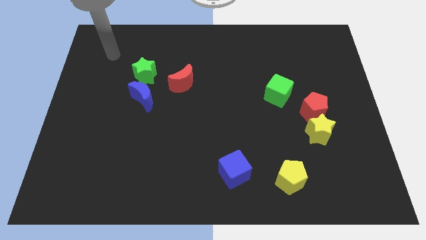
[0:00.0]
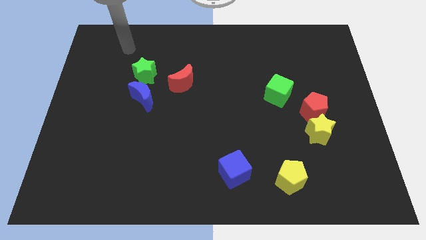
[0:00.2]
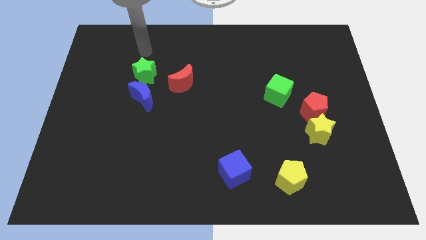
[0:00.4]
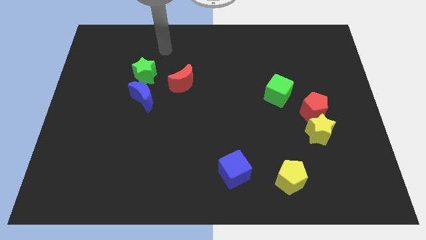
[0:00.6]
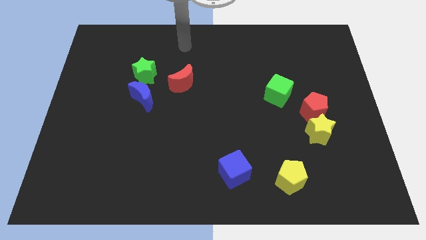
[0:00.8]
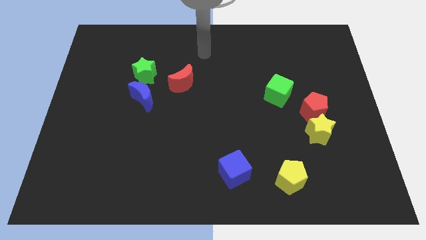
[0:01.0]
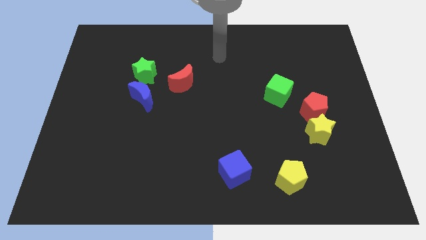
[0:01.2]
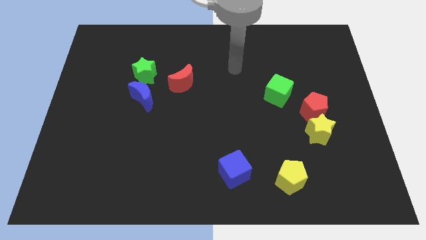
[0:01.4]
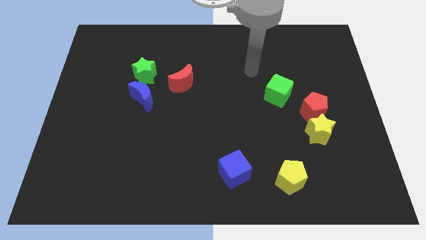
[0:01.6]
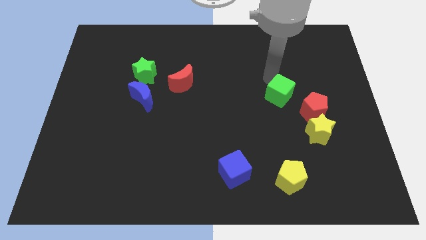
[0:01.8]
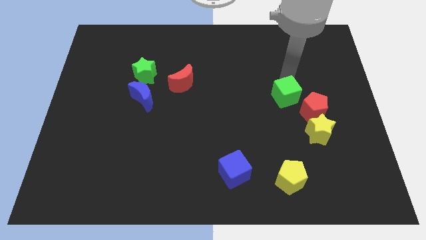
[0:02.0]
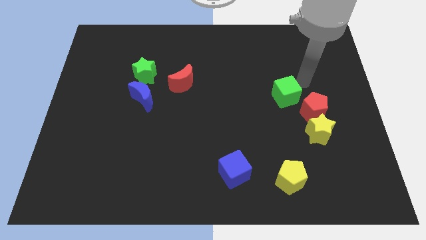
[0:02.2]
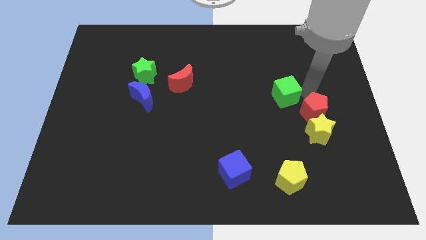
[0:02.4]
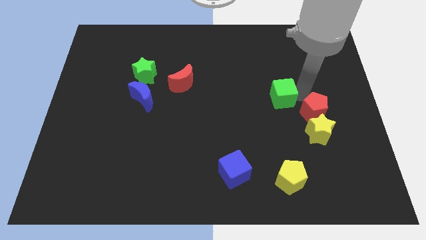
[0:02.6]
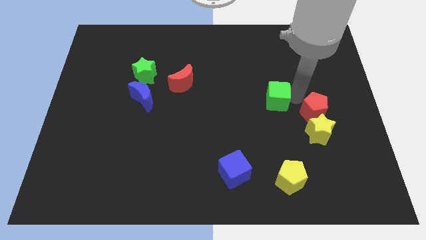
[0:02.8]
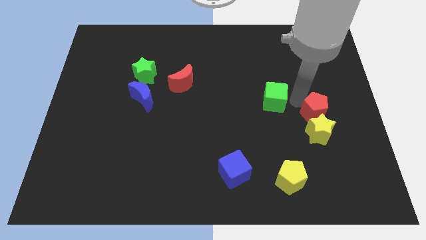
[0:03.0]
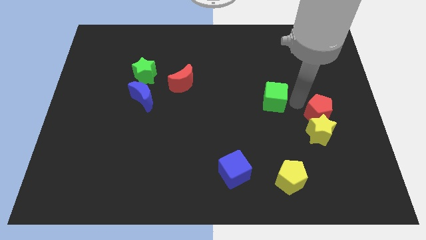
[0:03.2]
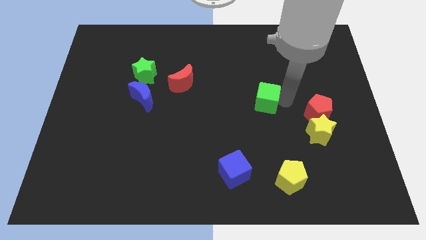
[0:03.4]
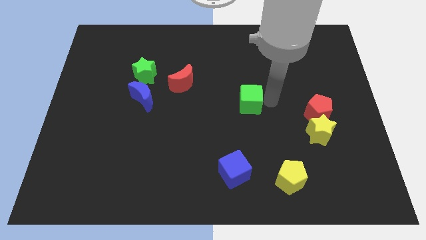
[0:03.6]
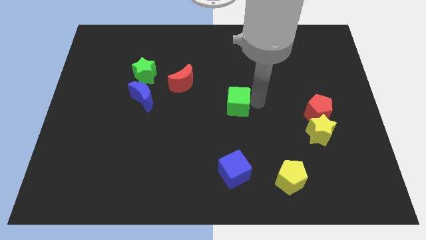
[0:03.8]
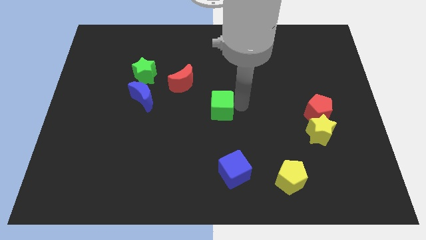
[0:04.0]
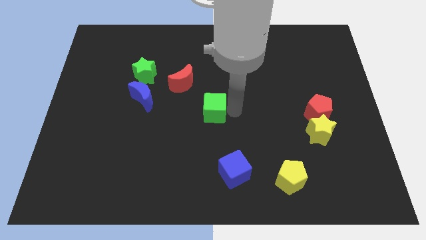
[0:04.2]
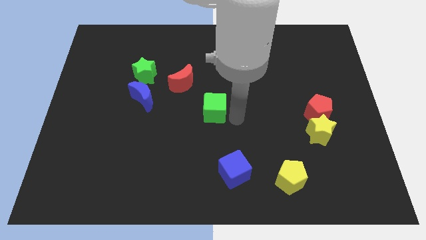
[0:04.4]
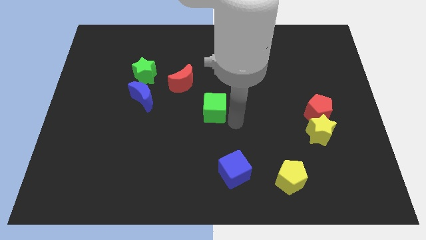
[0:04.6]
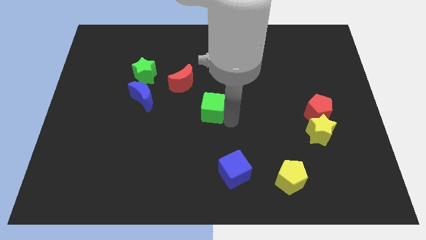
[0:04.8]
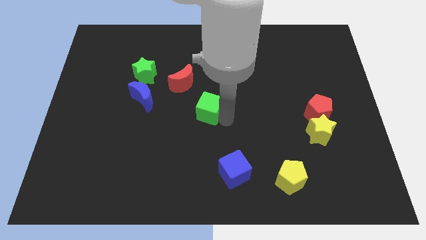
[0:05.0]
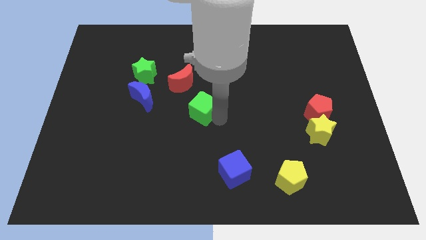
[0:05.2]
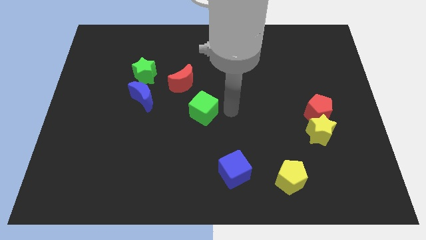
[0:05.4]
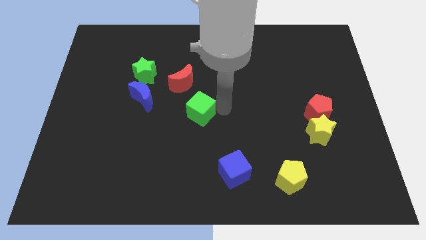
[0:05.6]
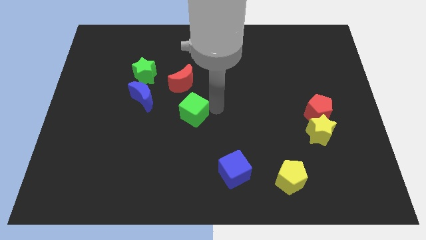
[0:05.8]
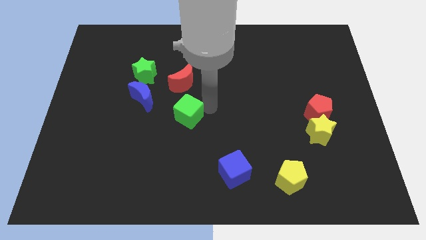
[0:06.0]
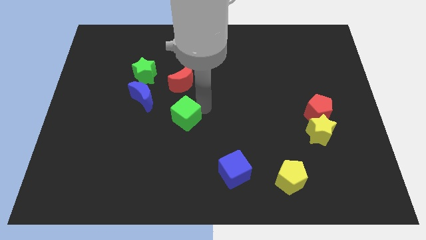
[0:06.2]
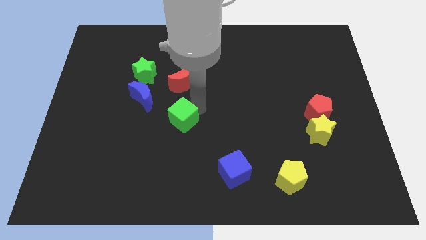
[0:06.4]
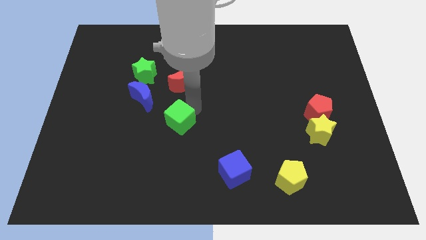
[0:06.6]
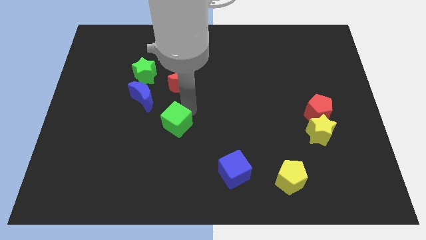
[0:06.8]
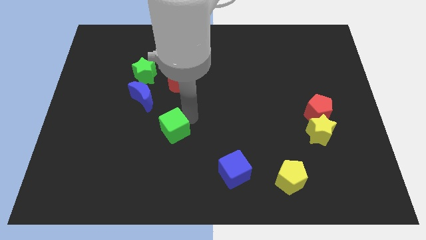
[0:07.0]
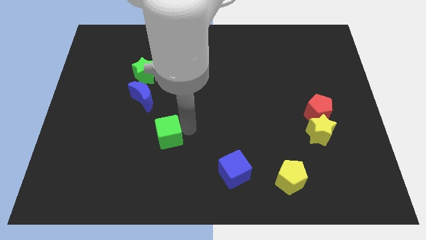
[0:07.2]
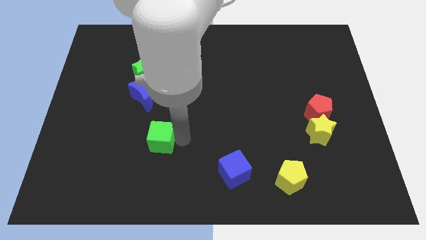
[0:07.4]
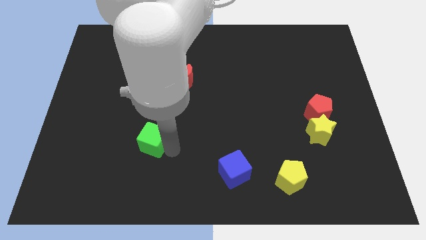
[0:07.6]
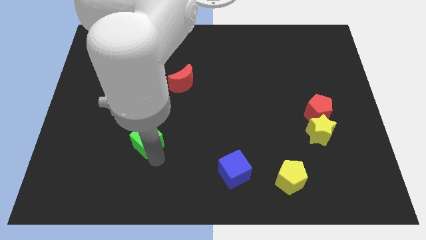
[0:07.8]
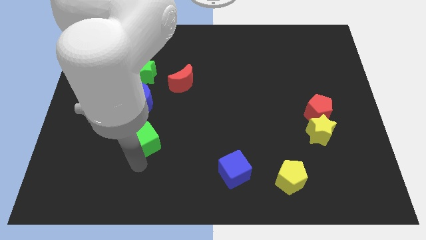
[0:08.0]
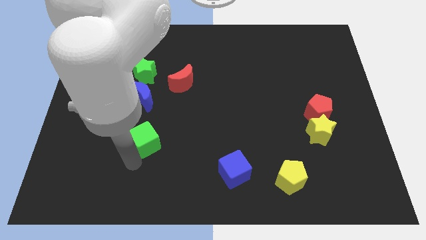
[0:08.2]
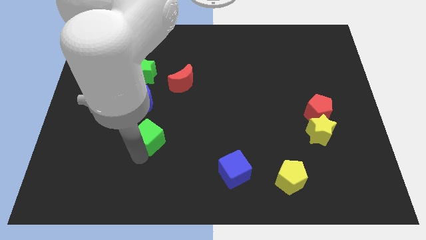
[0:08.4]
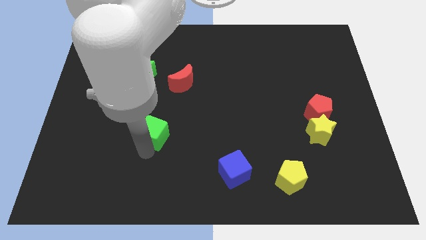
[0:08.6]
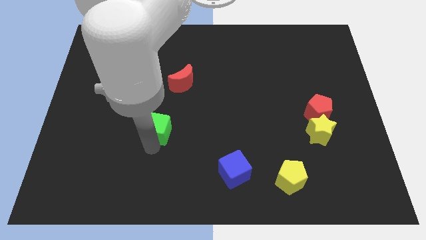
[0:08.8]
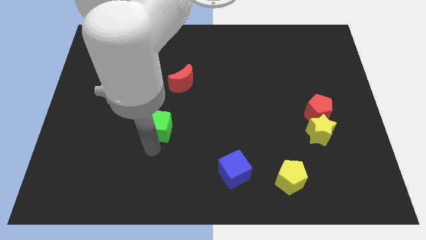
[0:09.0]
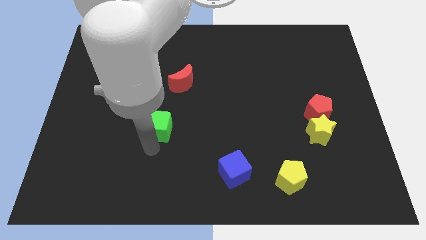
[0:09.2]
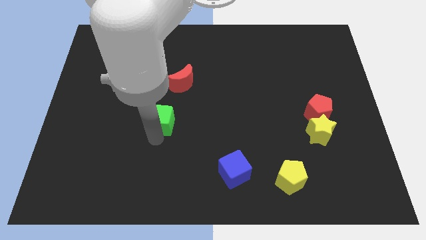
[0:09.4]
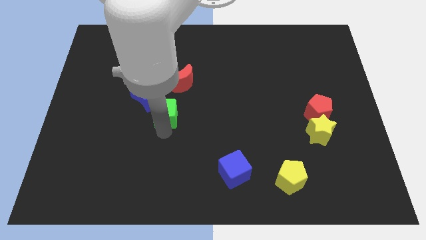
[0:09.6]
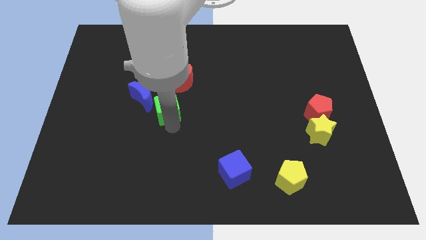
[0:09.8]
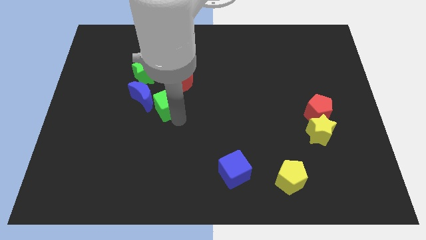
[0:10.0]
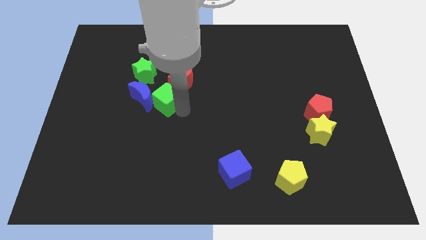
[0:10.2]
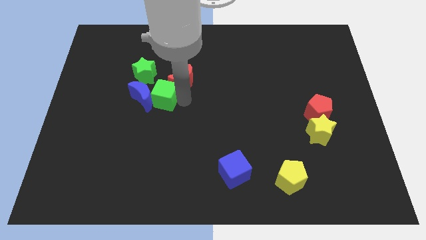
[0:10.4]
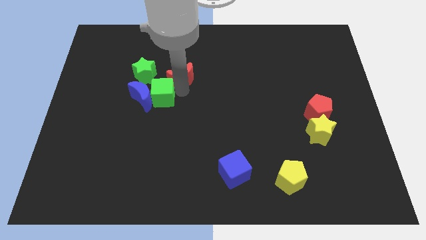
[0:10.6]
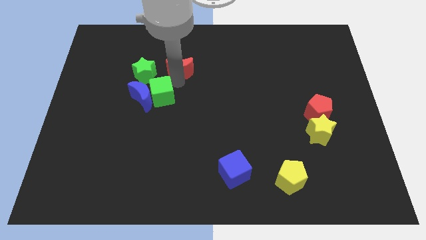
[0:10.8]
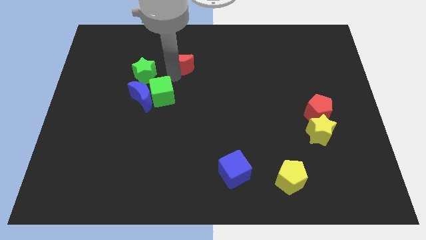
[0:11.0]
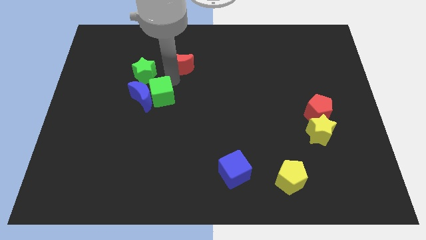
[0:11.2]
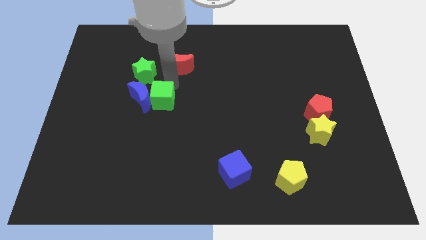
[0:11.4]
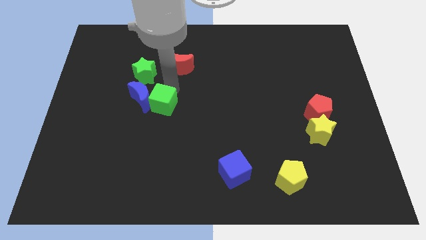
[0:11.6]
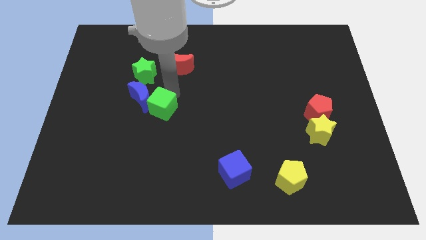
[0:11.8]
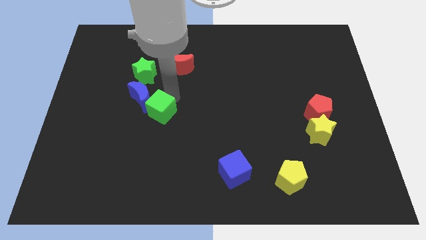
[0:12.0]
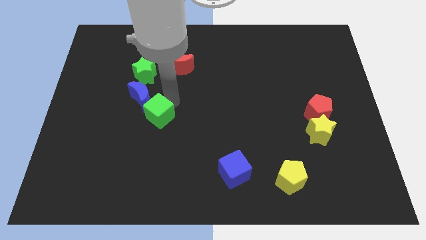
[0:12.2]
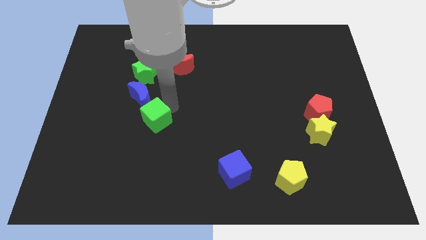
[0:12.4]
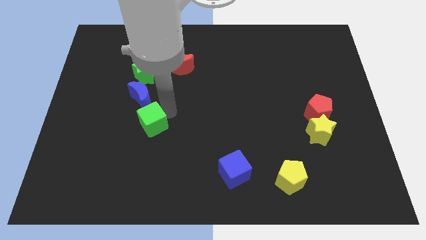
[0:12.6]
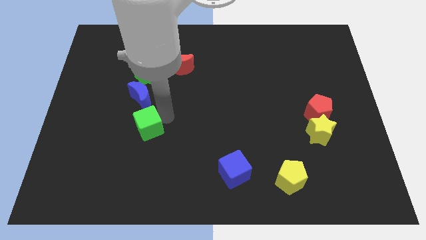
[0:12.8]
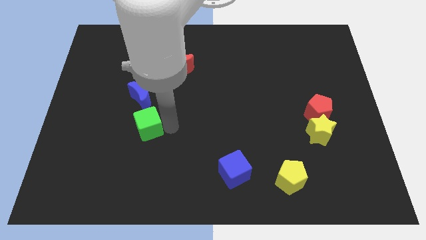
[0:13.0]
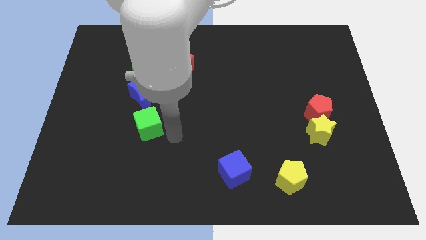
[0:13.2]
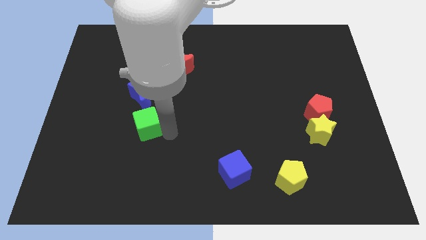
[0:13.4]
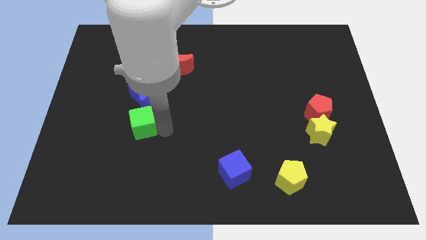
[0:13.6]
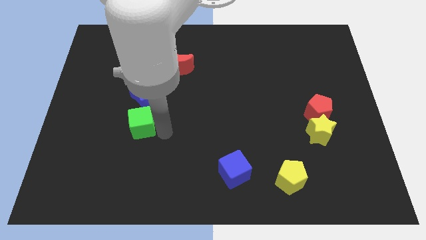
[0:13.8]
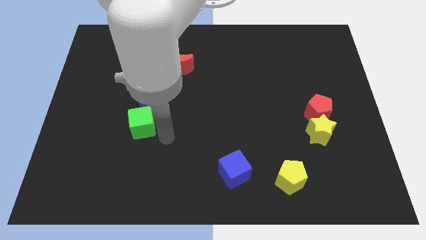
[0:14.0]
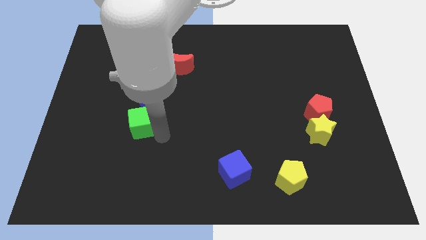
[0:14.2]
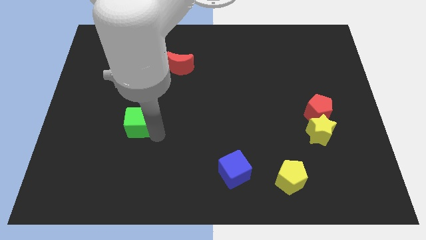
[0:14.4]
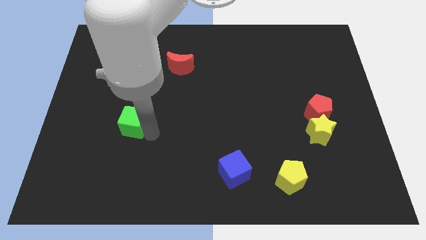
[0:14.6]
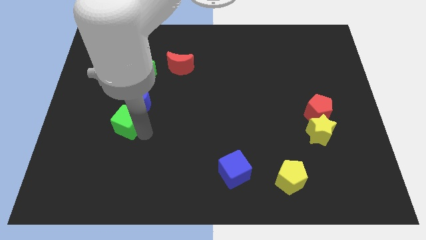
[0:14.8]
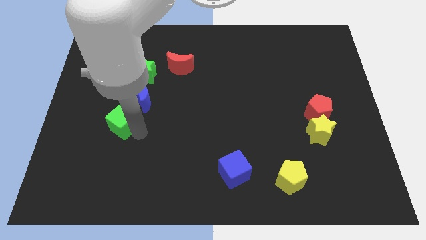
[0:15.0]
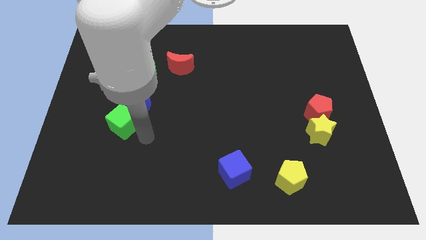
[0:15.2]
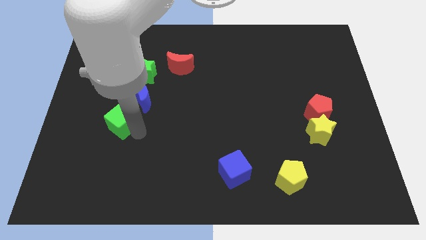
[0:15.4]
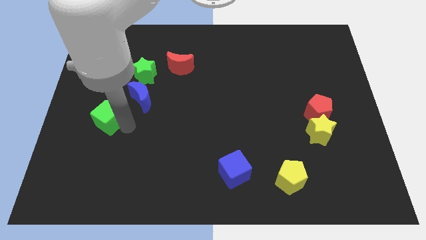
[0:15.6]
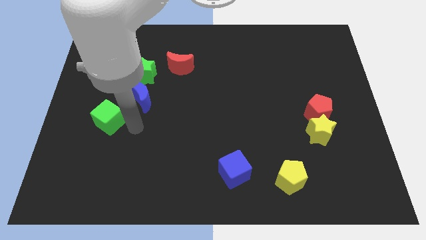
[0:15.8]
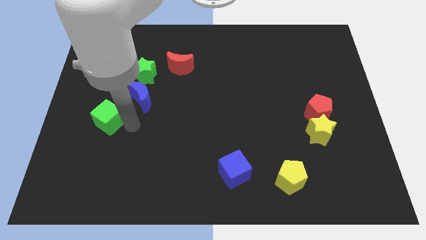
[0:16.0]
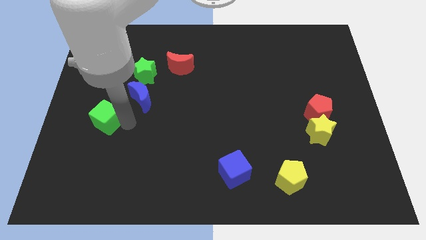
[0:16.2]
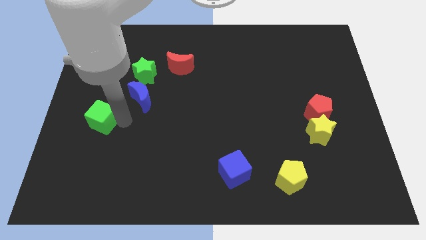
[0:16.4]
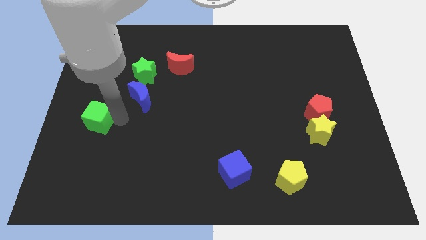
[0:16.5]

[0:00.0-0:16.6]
push the green cube to the left side
